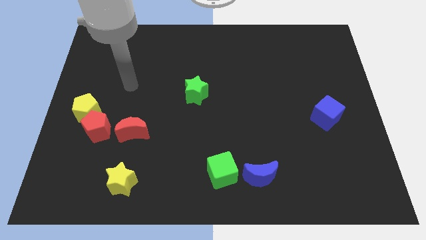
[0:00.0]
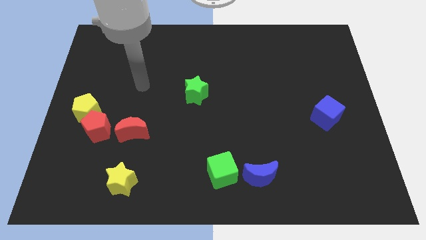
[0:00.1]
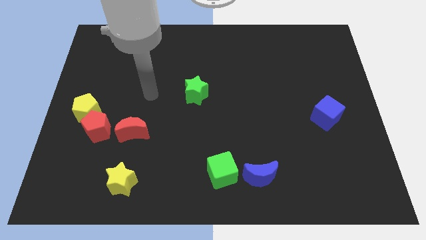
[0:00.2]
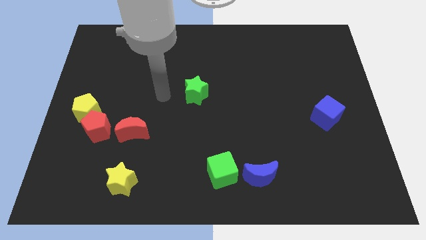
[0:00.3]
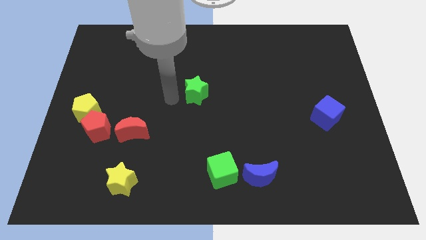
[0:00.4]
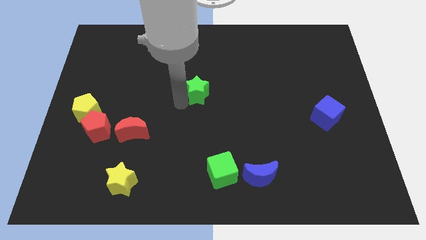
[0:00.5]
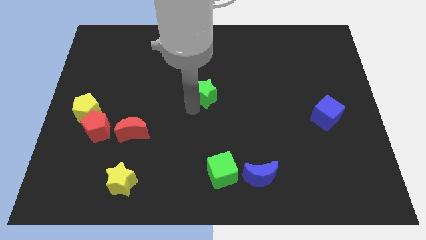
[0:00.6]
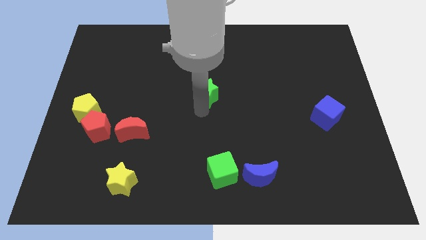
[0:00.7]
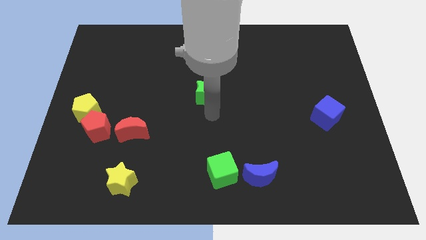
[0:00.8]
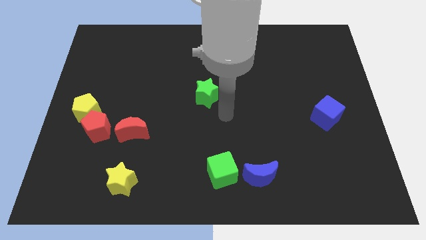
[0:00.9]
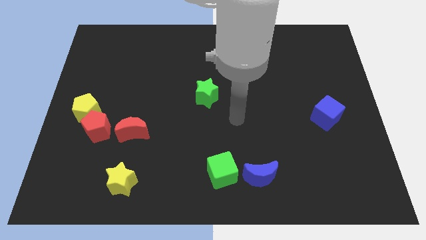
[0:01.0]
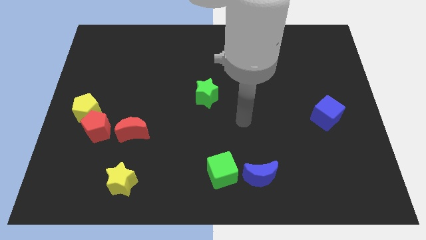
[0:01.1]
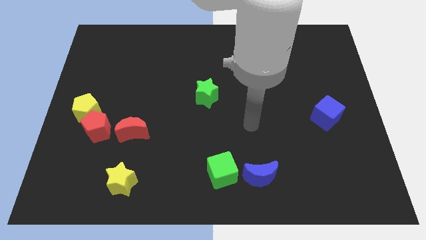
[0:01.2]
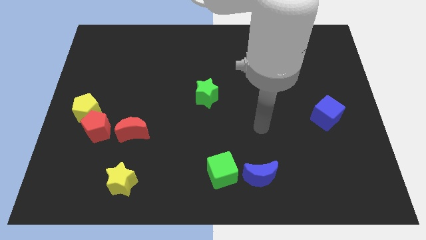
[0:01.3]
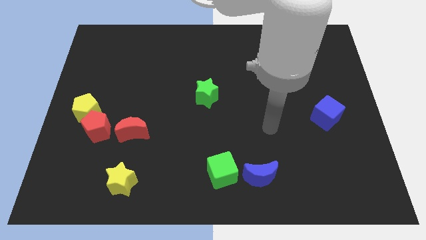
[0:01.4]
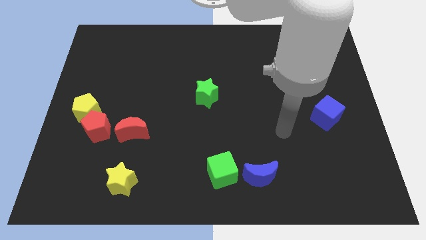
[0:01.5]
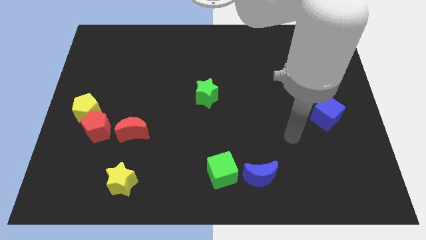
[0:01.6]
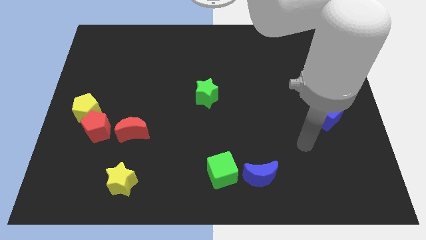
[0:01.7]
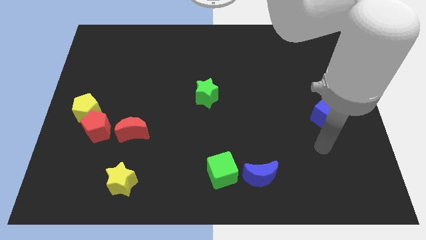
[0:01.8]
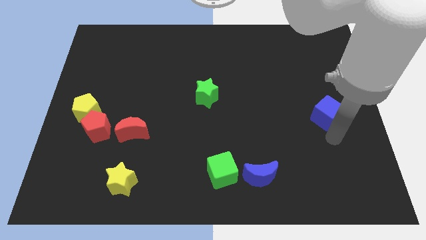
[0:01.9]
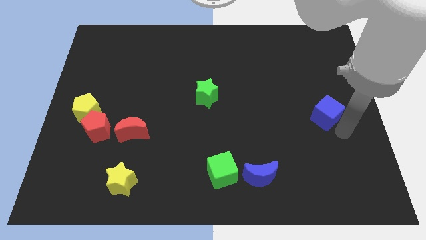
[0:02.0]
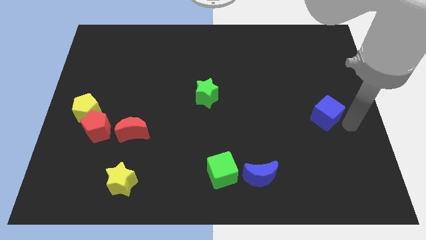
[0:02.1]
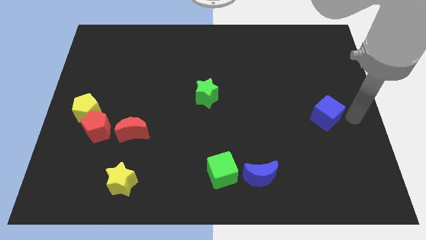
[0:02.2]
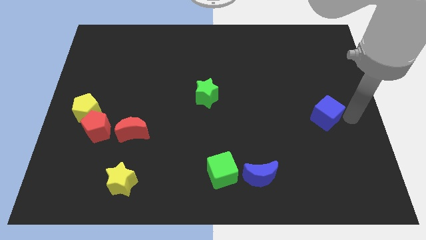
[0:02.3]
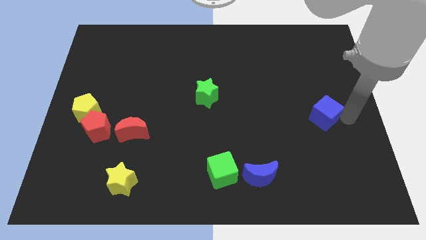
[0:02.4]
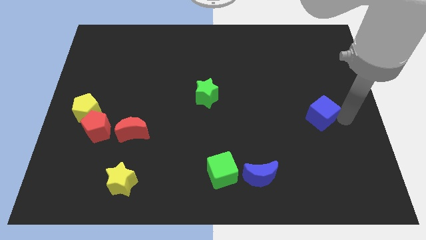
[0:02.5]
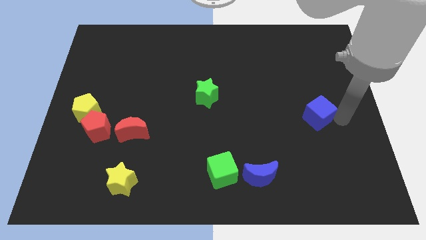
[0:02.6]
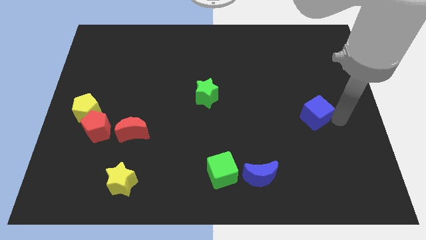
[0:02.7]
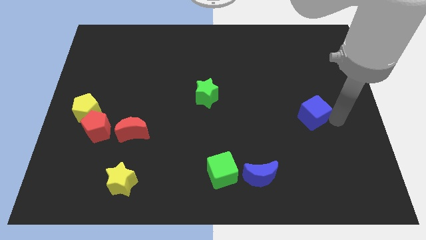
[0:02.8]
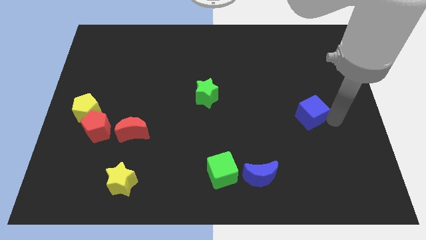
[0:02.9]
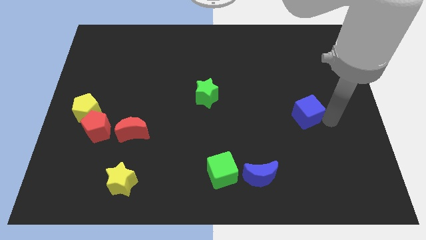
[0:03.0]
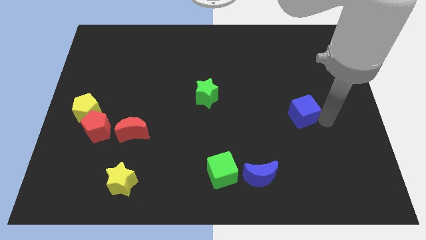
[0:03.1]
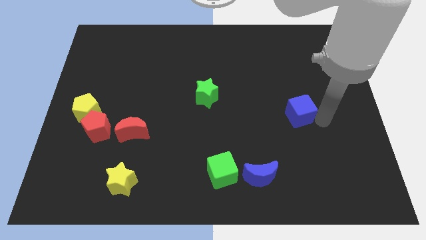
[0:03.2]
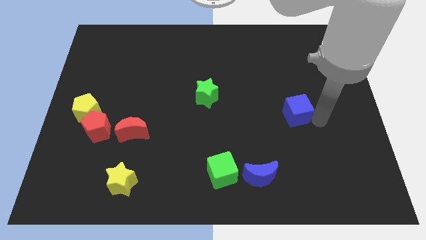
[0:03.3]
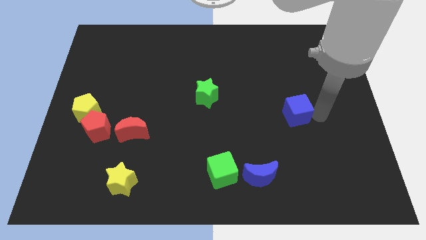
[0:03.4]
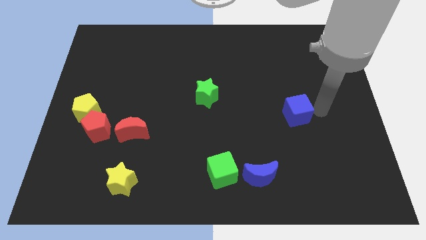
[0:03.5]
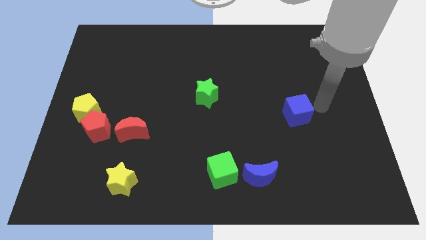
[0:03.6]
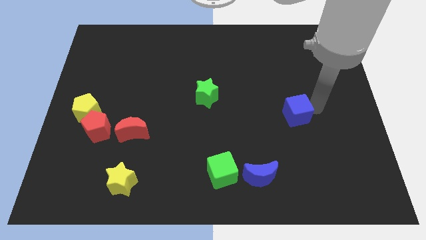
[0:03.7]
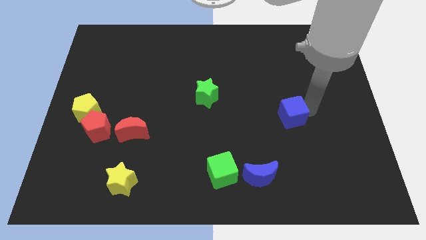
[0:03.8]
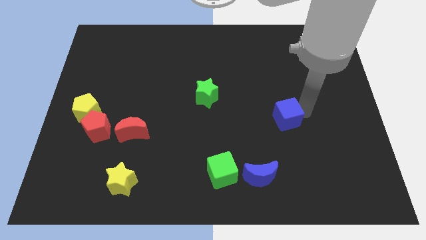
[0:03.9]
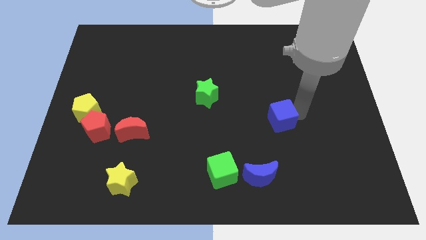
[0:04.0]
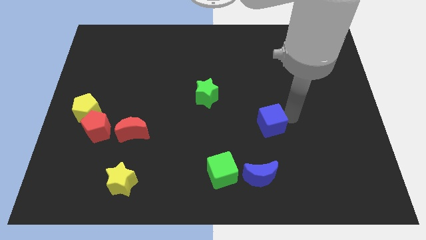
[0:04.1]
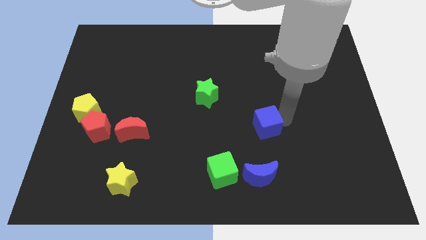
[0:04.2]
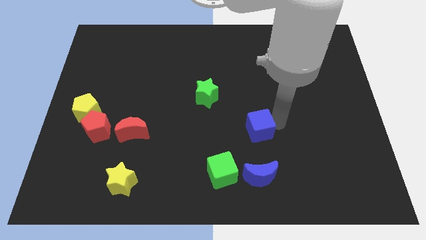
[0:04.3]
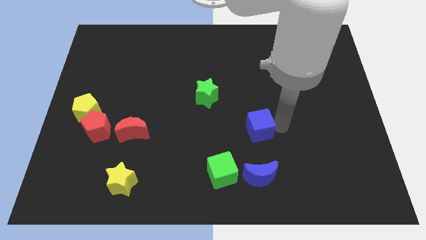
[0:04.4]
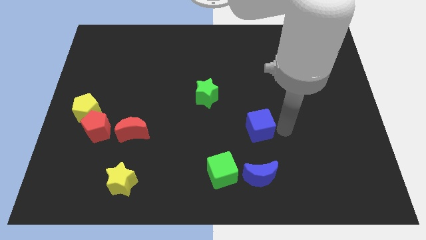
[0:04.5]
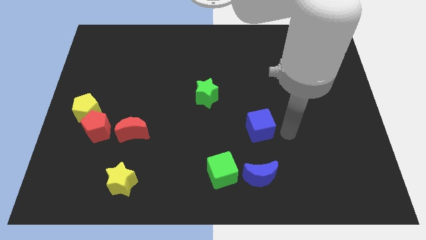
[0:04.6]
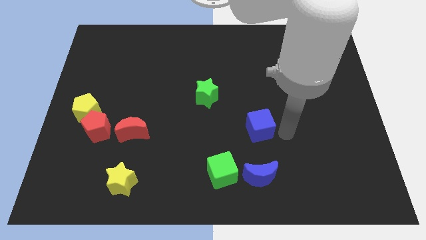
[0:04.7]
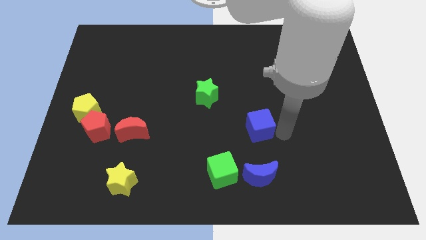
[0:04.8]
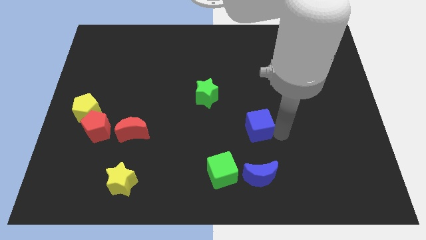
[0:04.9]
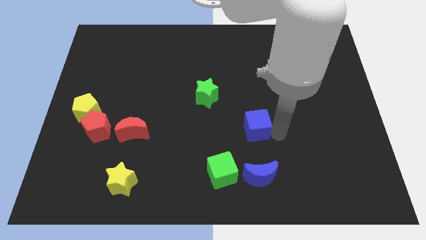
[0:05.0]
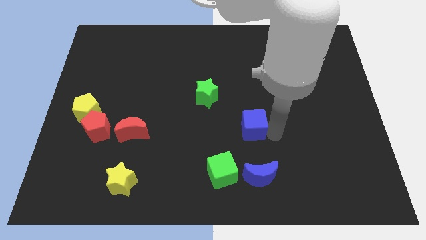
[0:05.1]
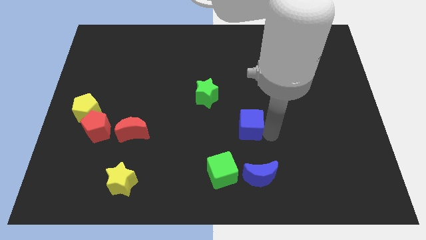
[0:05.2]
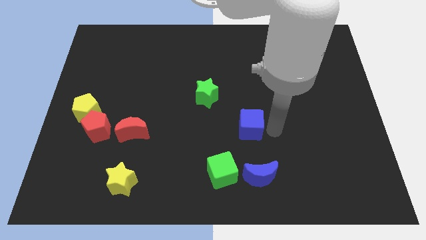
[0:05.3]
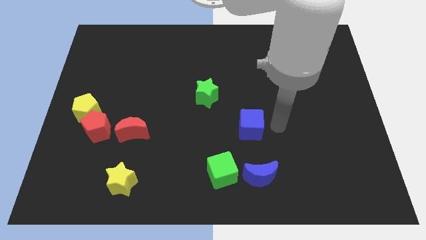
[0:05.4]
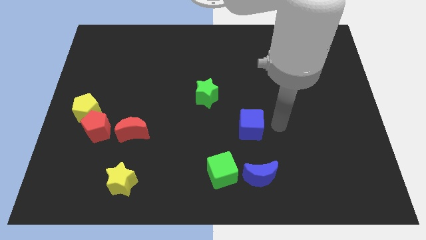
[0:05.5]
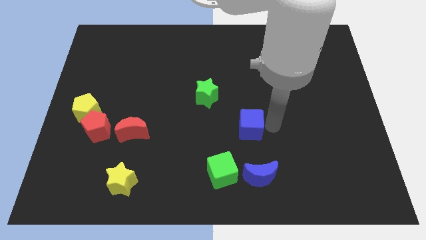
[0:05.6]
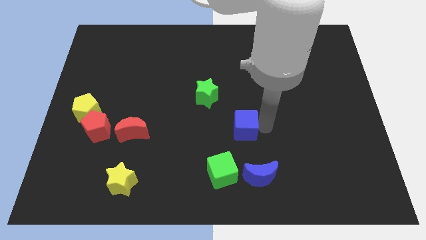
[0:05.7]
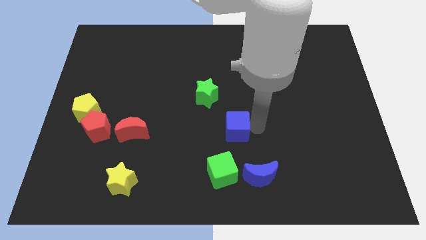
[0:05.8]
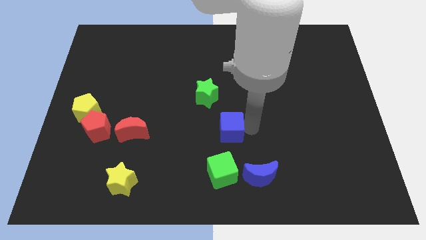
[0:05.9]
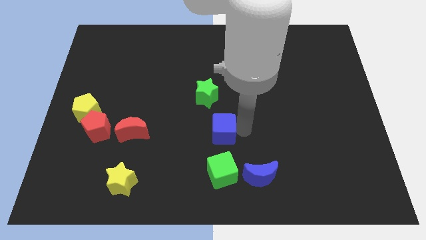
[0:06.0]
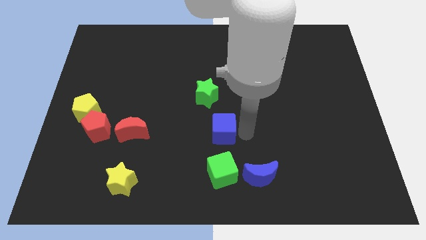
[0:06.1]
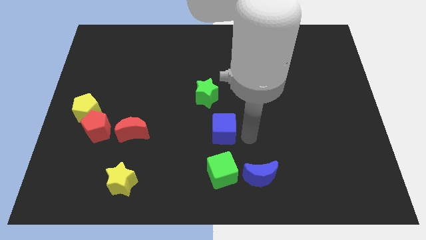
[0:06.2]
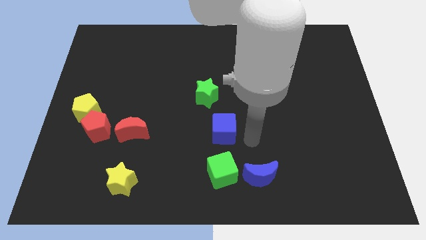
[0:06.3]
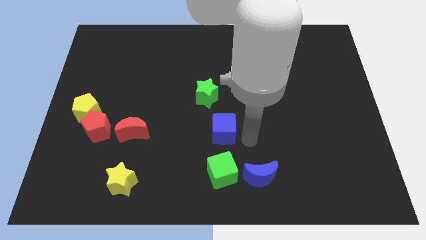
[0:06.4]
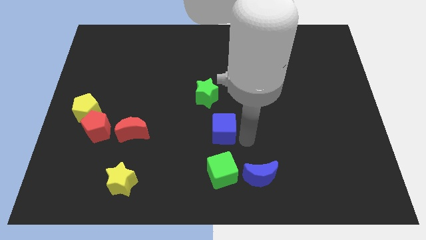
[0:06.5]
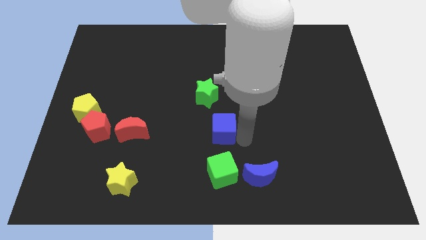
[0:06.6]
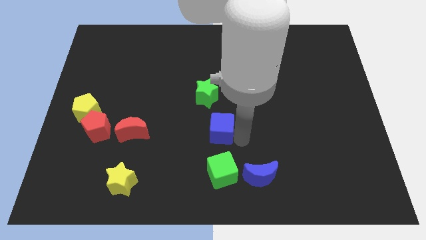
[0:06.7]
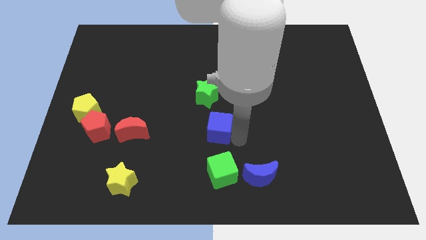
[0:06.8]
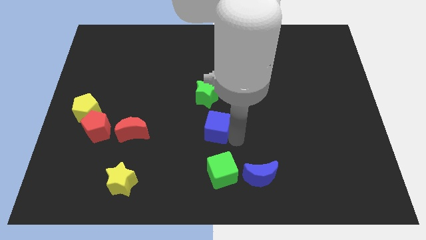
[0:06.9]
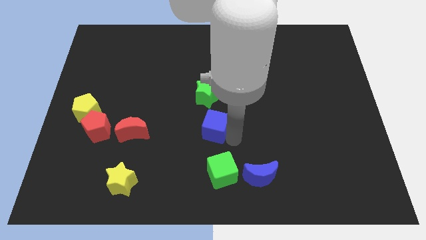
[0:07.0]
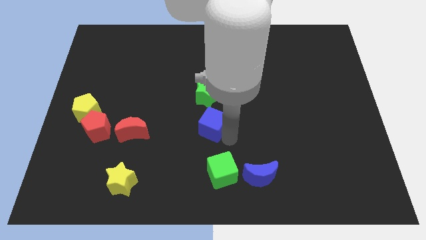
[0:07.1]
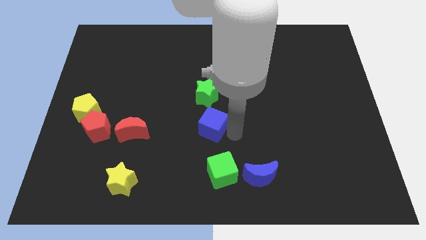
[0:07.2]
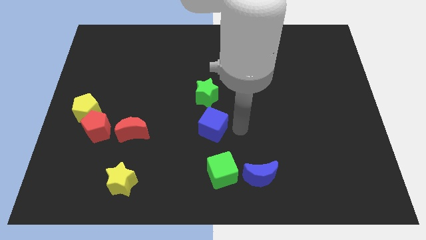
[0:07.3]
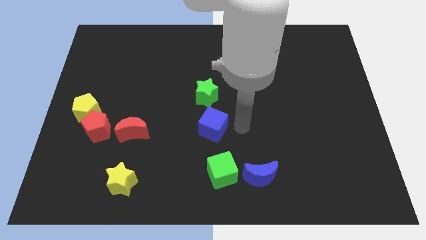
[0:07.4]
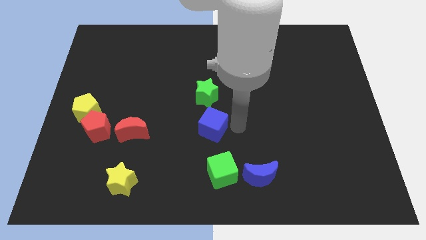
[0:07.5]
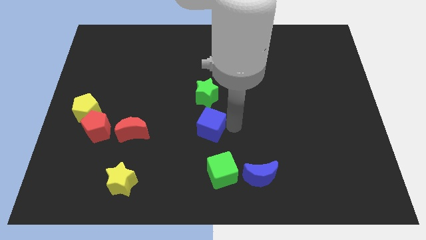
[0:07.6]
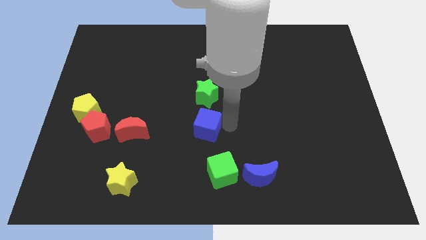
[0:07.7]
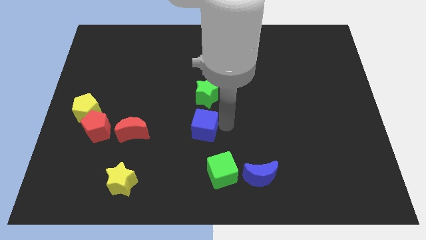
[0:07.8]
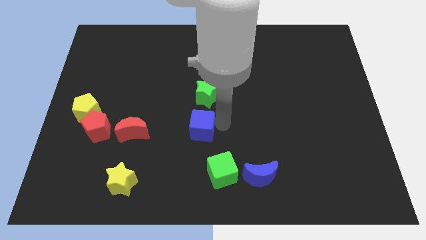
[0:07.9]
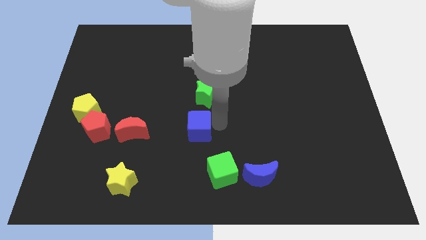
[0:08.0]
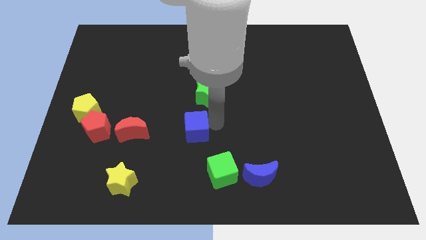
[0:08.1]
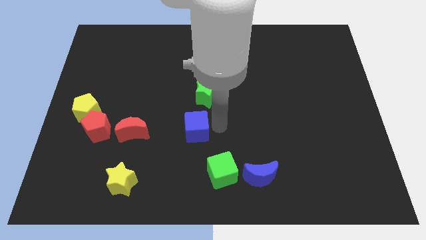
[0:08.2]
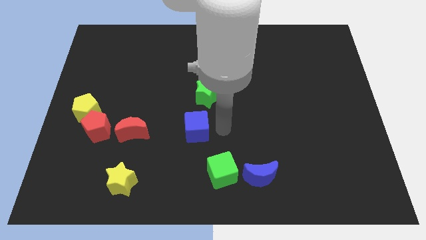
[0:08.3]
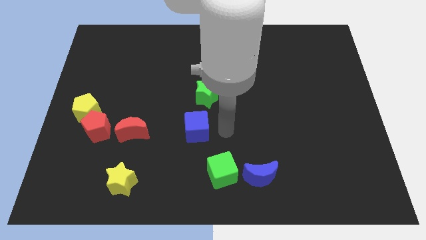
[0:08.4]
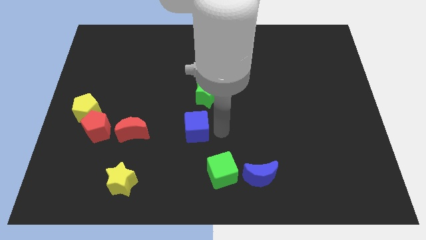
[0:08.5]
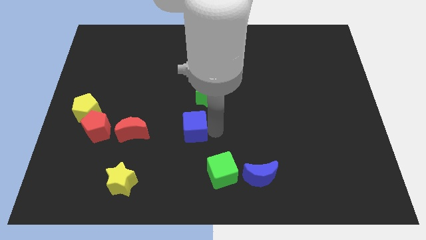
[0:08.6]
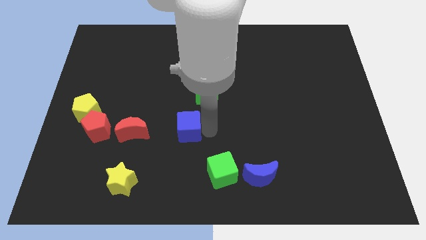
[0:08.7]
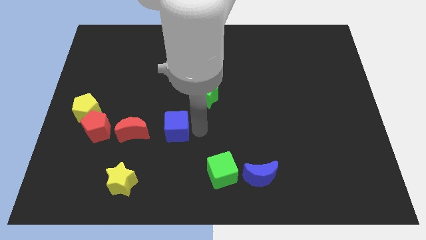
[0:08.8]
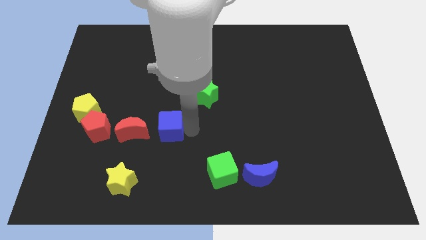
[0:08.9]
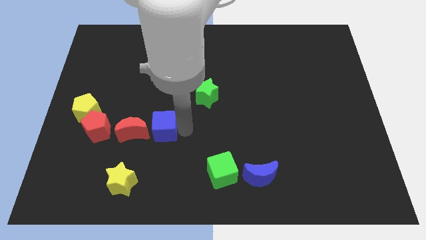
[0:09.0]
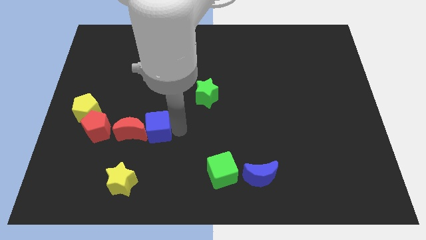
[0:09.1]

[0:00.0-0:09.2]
push the blue cube towards the red moon
